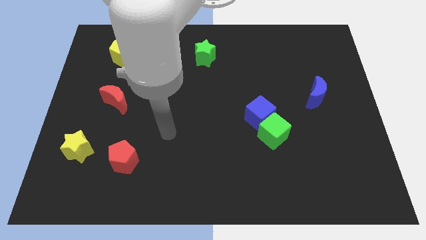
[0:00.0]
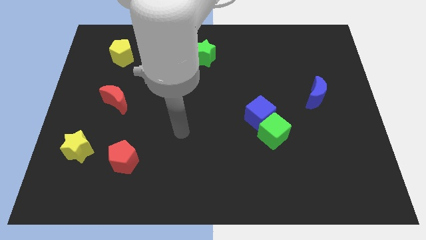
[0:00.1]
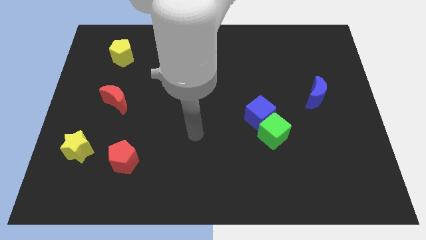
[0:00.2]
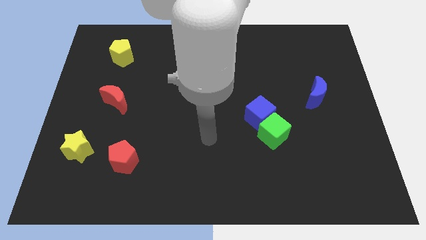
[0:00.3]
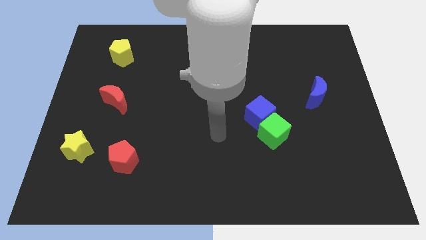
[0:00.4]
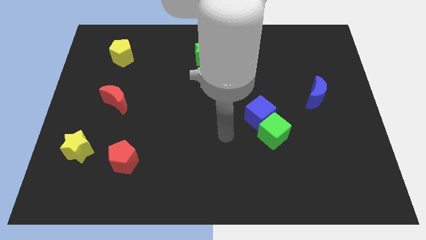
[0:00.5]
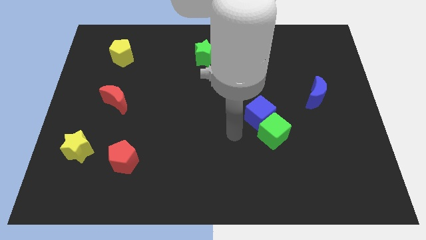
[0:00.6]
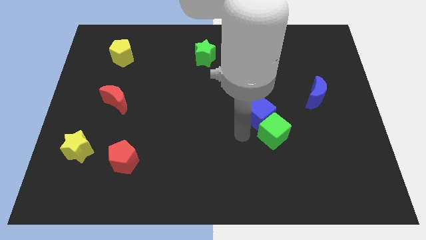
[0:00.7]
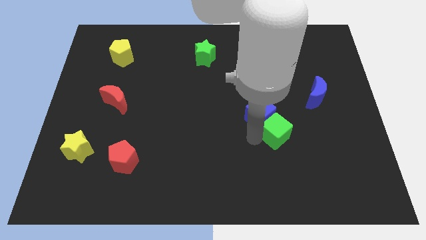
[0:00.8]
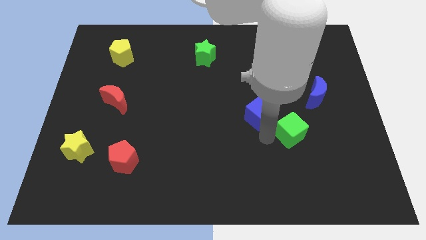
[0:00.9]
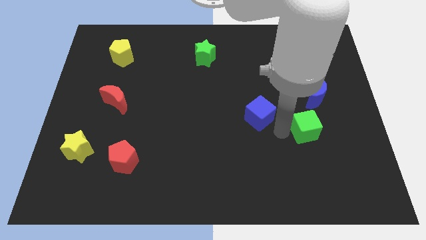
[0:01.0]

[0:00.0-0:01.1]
pull the blue cube apart from the green cube

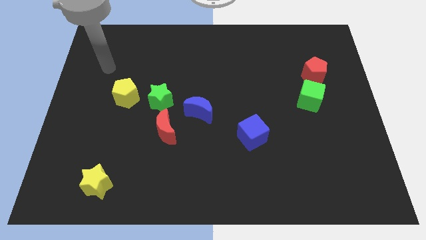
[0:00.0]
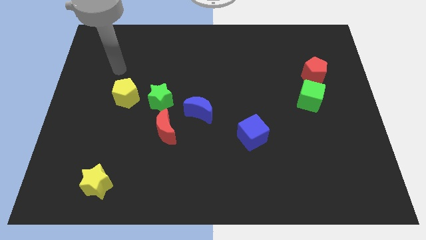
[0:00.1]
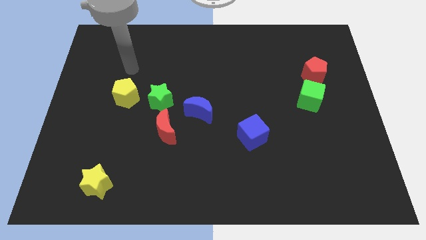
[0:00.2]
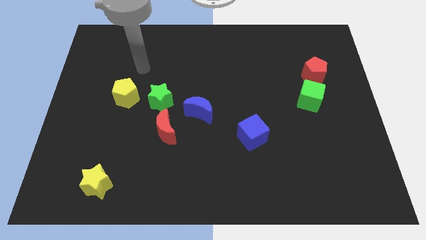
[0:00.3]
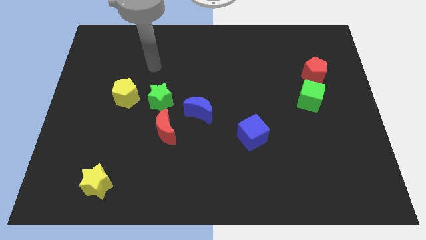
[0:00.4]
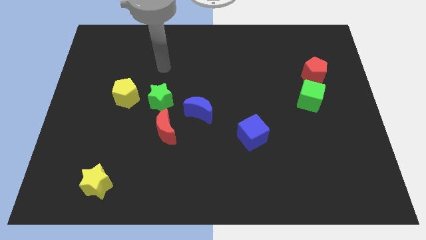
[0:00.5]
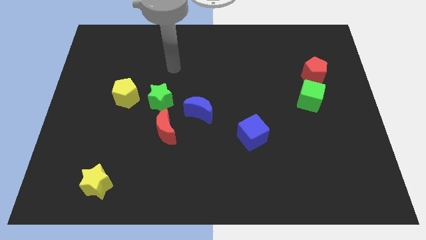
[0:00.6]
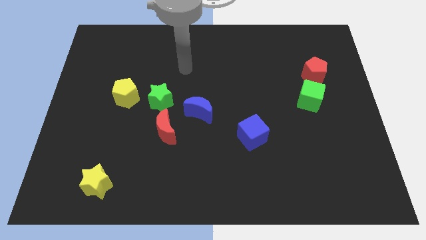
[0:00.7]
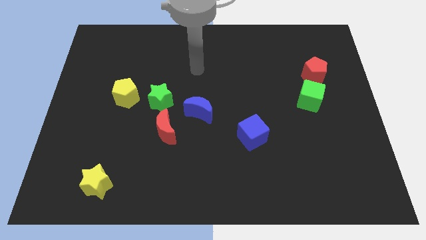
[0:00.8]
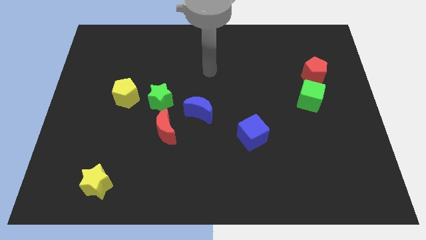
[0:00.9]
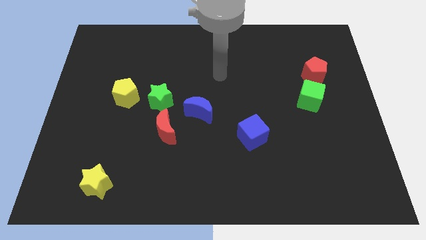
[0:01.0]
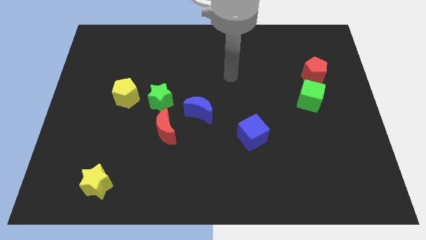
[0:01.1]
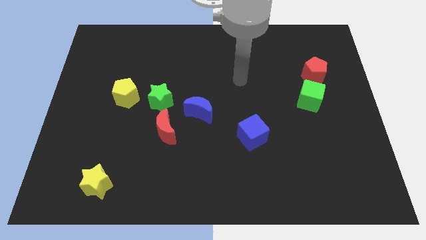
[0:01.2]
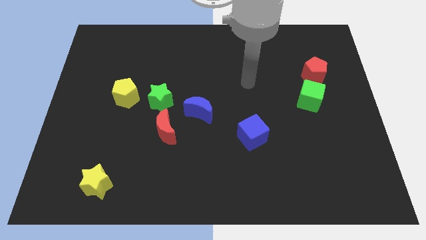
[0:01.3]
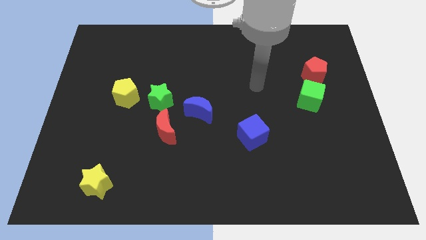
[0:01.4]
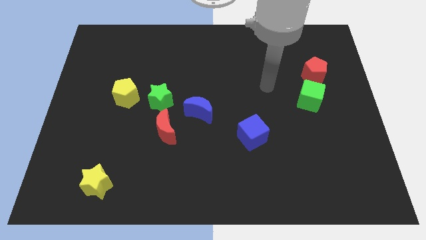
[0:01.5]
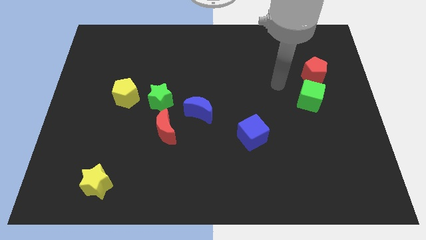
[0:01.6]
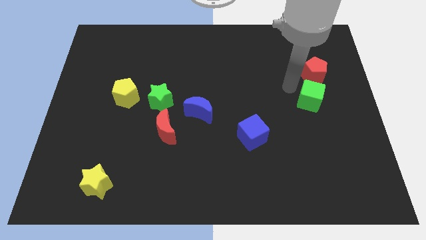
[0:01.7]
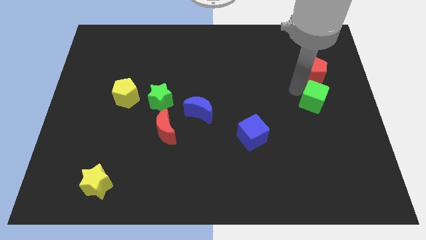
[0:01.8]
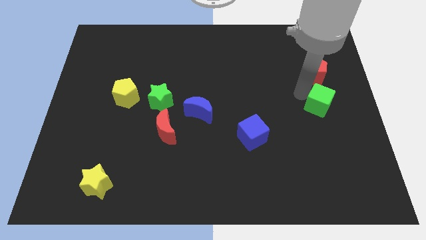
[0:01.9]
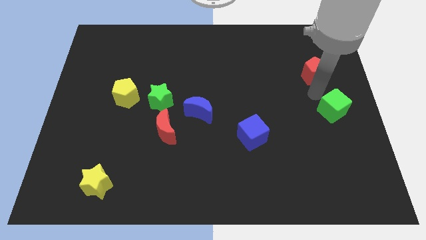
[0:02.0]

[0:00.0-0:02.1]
separate the red pentagon from the green cube

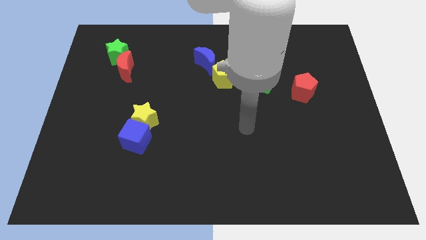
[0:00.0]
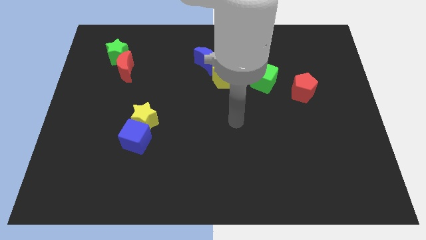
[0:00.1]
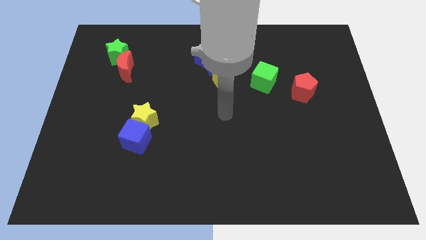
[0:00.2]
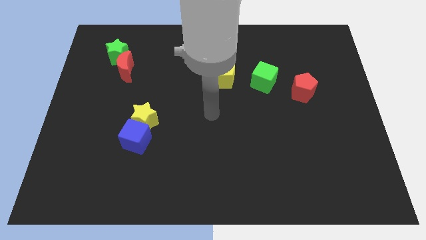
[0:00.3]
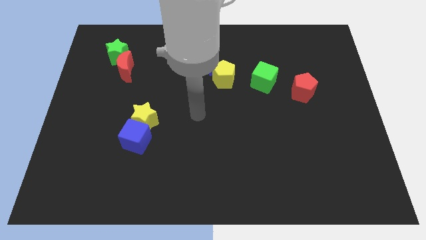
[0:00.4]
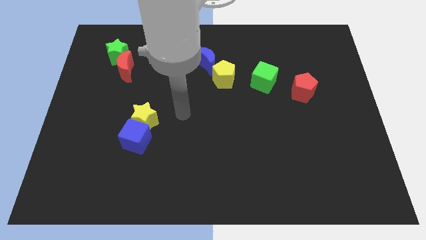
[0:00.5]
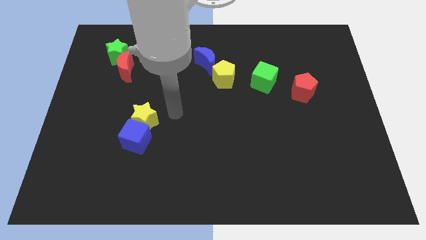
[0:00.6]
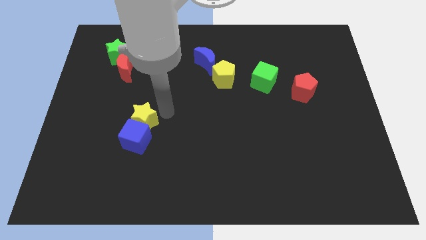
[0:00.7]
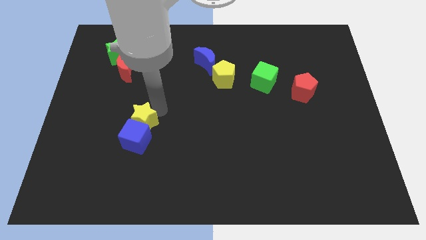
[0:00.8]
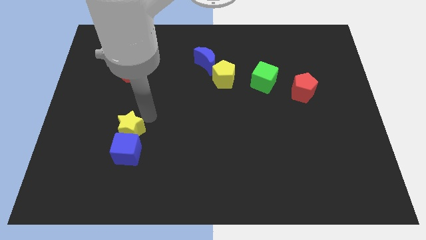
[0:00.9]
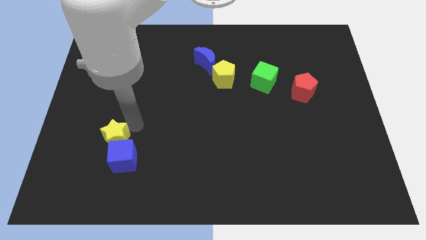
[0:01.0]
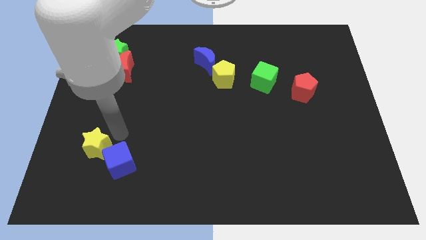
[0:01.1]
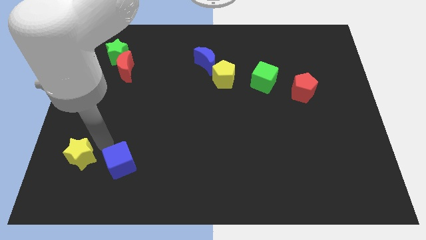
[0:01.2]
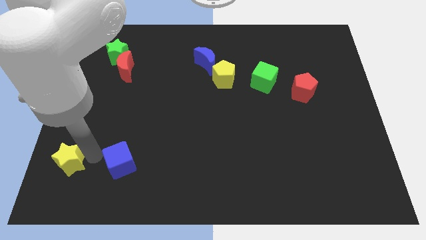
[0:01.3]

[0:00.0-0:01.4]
pull the blue cube apart from the yellow star

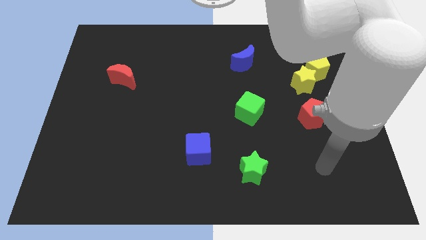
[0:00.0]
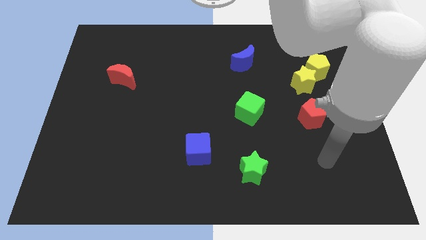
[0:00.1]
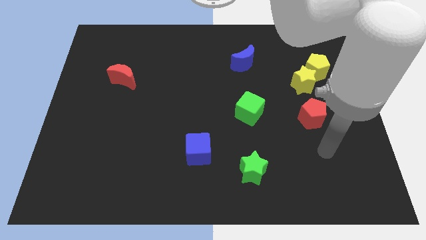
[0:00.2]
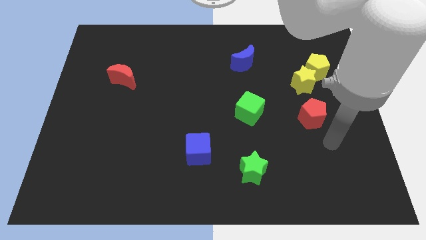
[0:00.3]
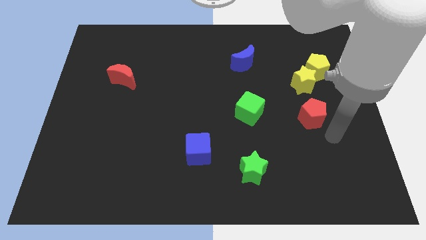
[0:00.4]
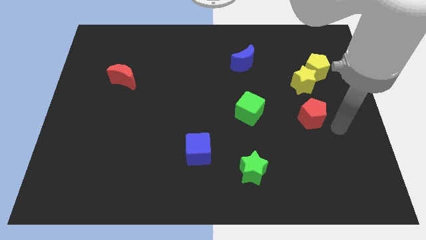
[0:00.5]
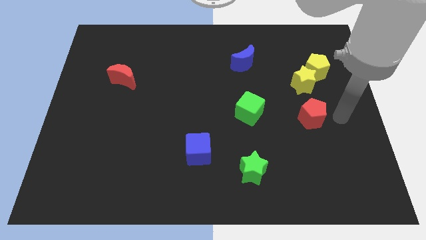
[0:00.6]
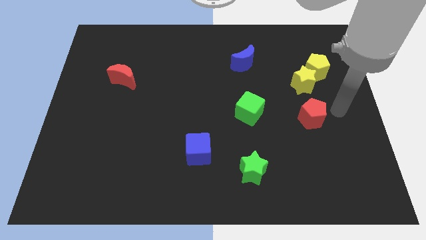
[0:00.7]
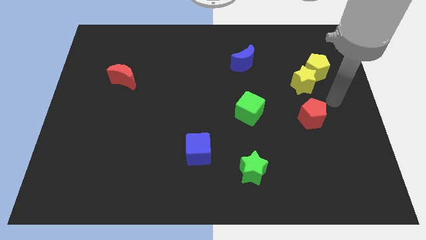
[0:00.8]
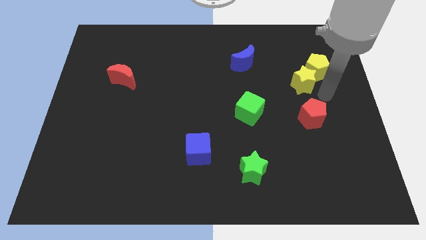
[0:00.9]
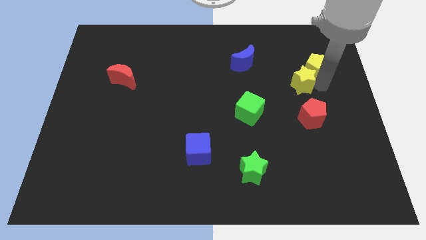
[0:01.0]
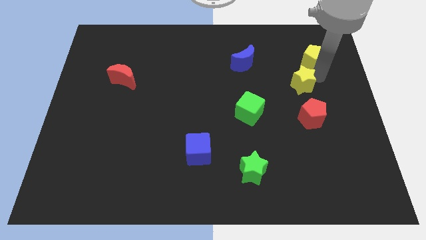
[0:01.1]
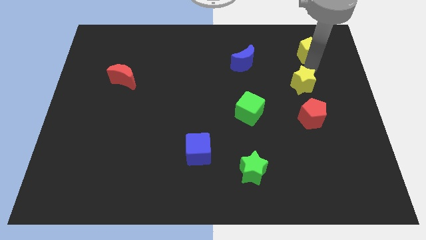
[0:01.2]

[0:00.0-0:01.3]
move the yellow star away from the yellow pentagon

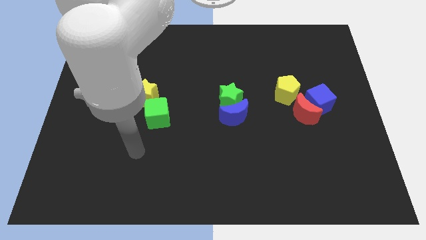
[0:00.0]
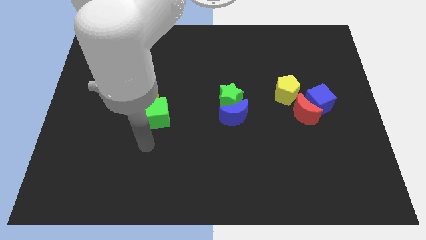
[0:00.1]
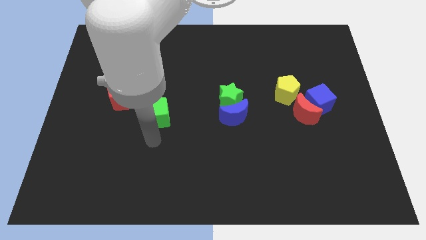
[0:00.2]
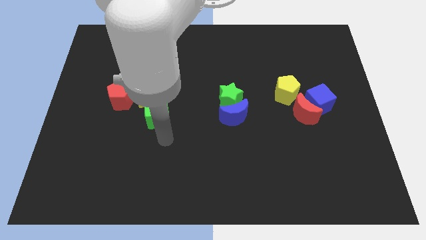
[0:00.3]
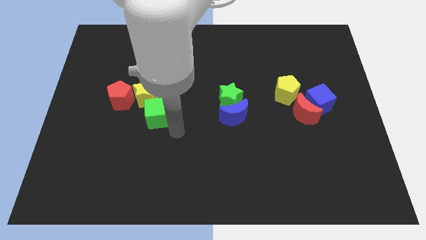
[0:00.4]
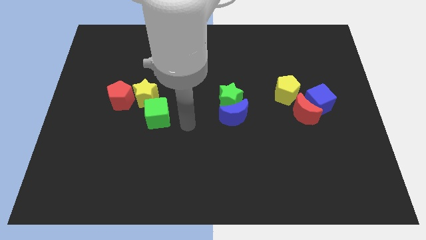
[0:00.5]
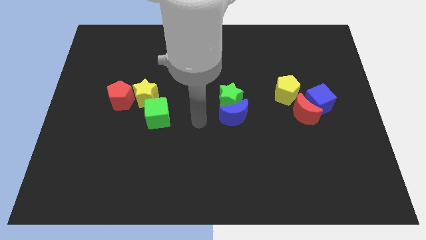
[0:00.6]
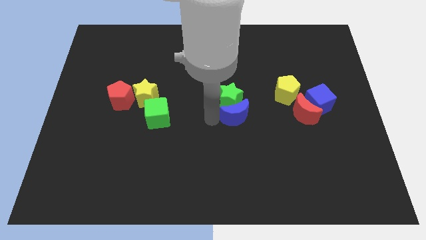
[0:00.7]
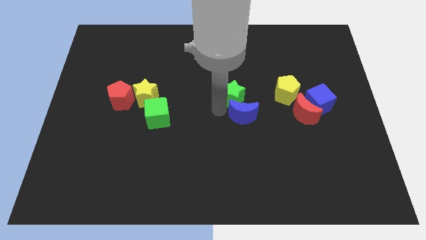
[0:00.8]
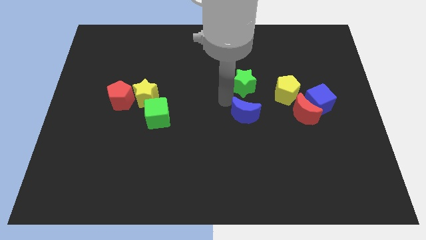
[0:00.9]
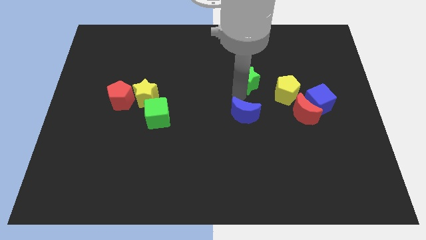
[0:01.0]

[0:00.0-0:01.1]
move the blue moon away from the green star

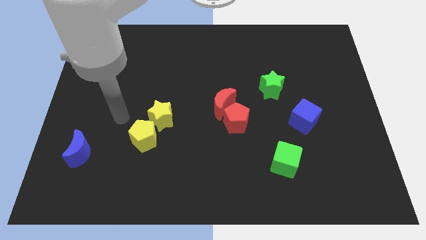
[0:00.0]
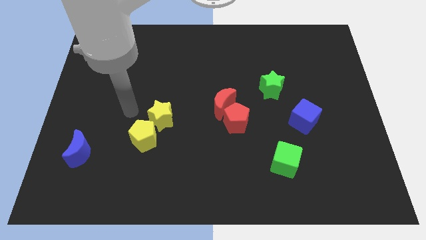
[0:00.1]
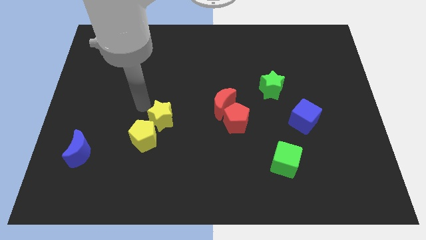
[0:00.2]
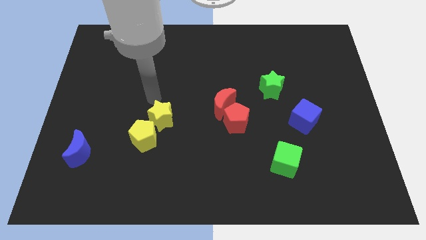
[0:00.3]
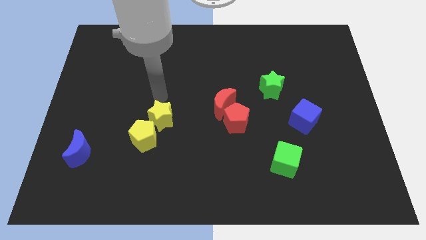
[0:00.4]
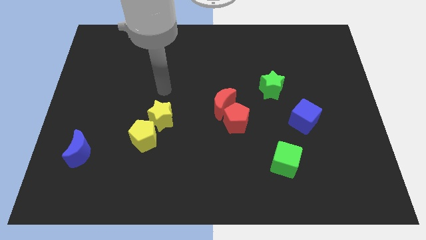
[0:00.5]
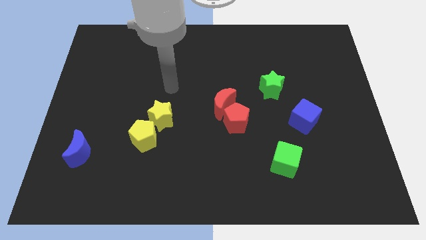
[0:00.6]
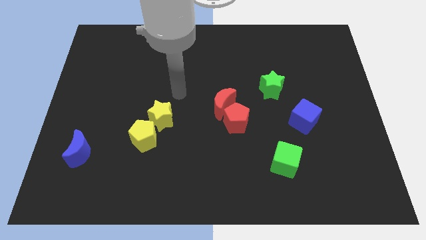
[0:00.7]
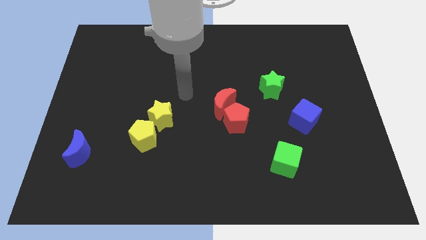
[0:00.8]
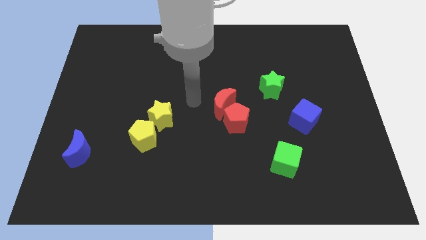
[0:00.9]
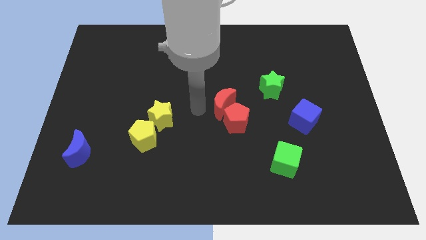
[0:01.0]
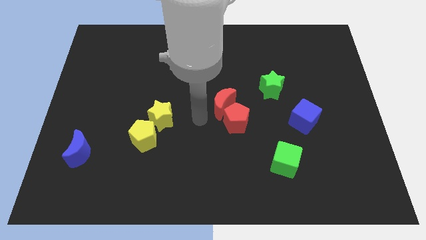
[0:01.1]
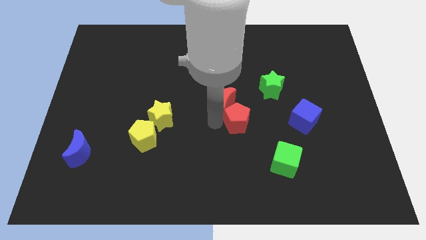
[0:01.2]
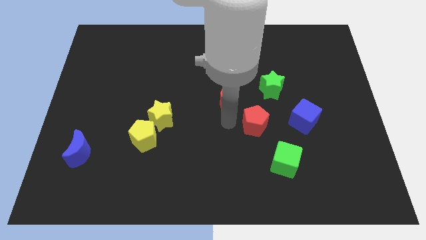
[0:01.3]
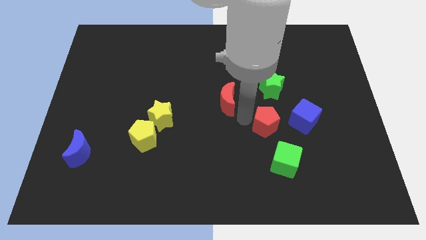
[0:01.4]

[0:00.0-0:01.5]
separate the red moon from the red pentagon

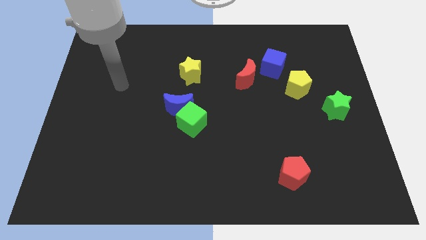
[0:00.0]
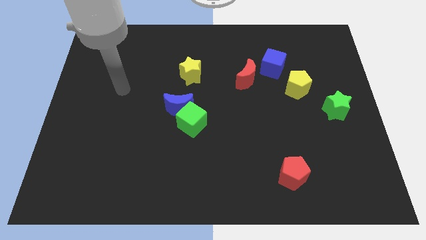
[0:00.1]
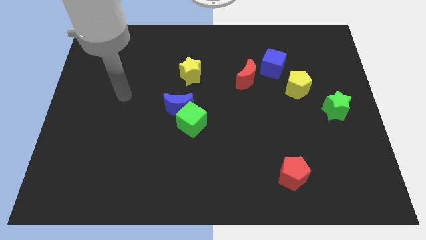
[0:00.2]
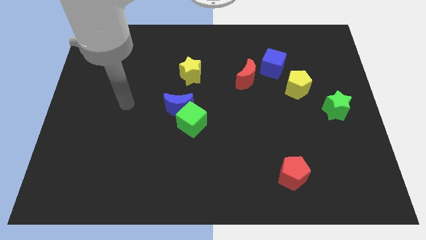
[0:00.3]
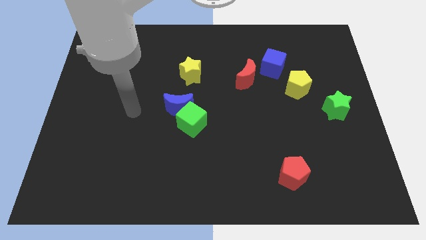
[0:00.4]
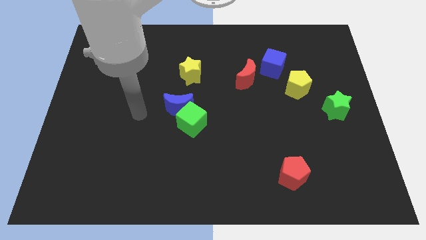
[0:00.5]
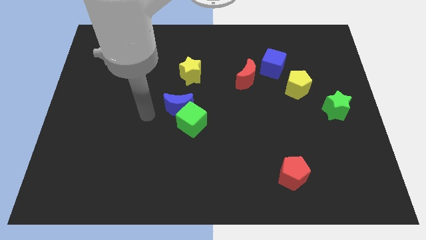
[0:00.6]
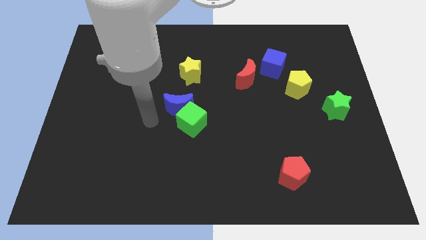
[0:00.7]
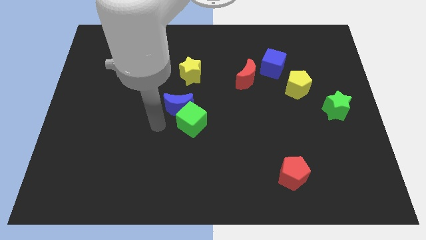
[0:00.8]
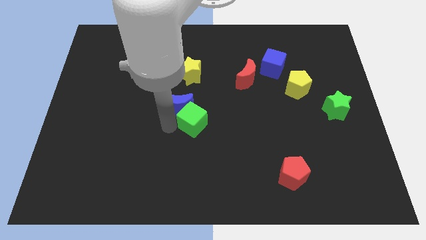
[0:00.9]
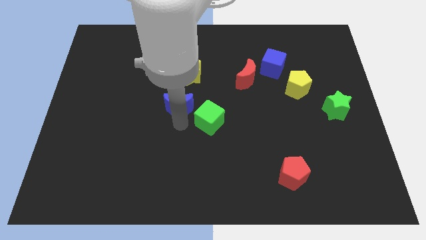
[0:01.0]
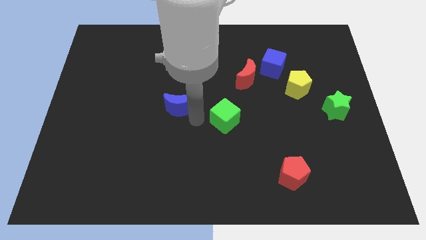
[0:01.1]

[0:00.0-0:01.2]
pull the blue moon apart from the green cube
